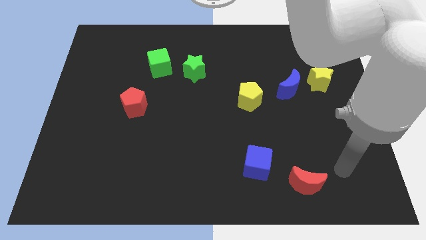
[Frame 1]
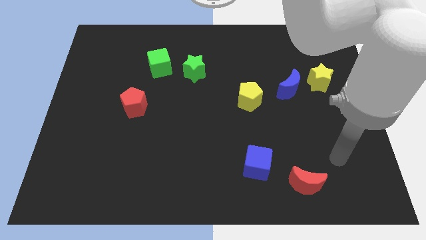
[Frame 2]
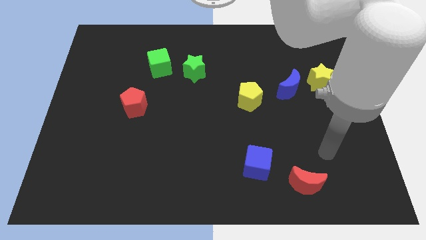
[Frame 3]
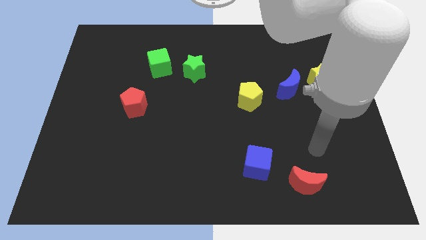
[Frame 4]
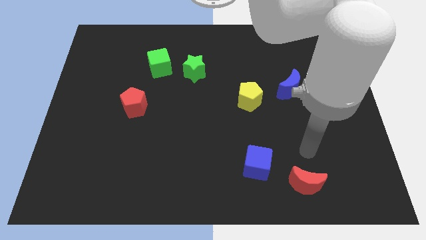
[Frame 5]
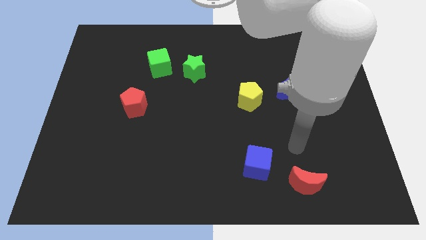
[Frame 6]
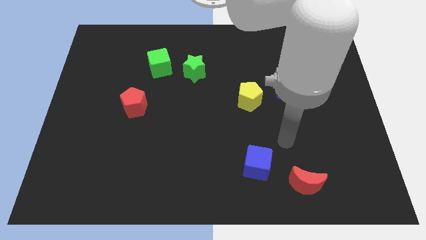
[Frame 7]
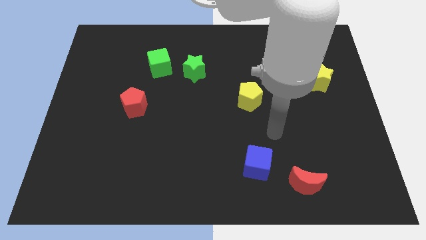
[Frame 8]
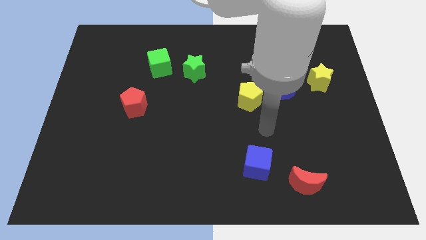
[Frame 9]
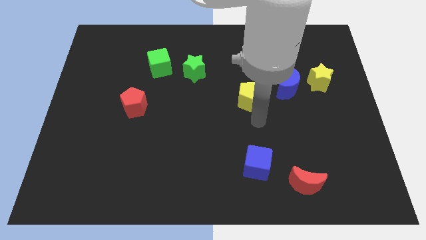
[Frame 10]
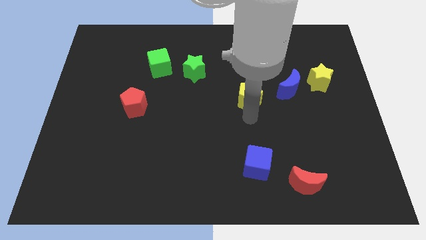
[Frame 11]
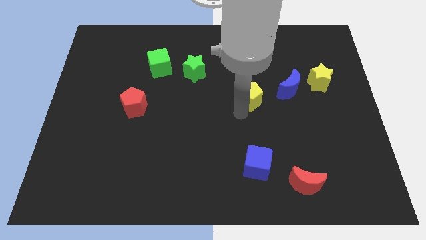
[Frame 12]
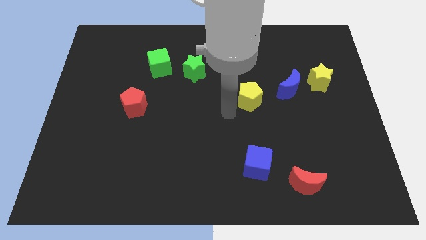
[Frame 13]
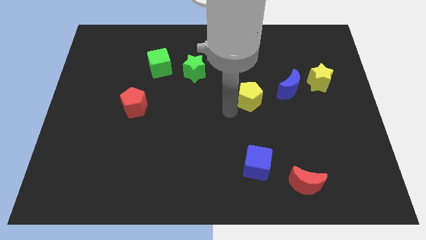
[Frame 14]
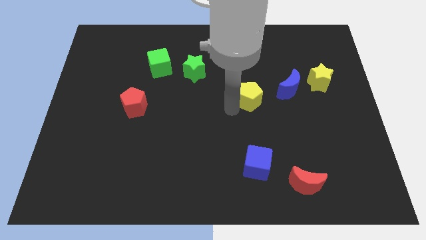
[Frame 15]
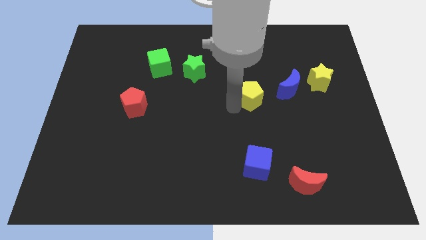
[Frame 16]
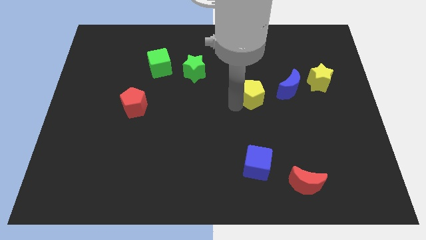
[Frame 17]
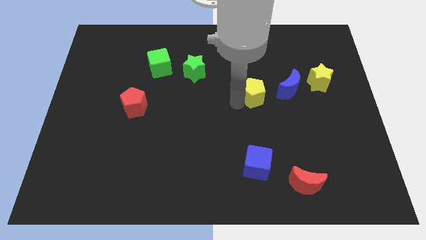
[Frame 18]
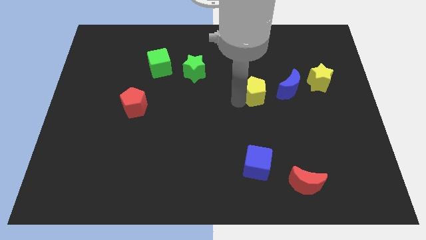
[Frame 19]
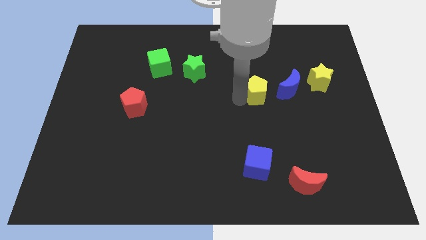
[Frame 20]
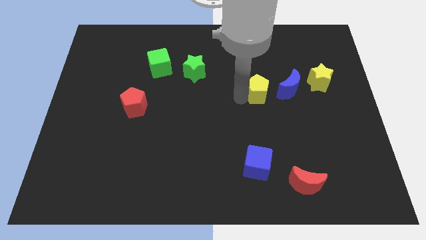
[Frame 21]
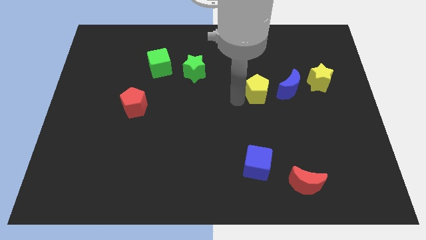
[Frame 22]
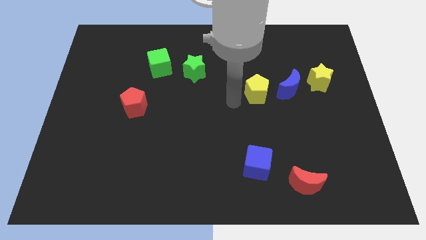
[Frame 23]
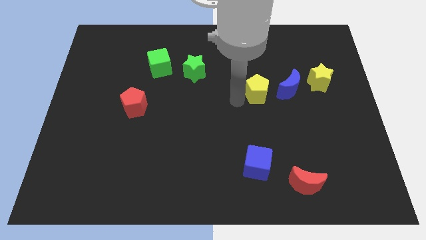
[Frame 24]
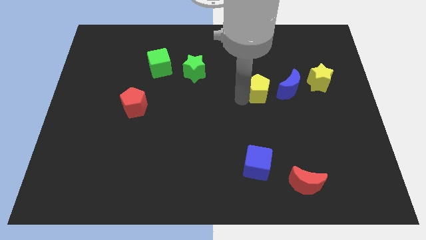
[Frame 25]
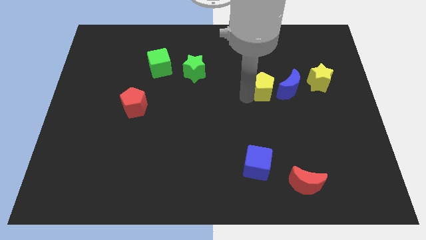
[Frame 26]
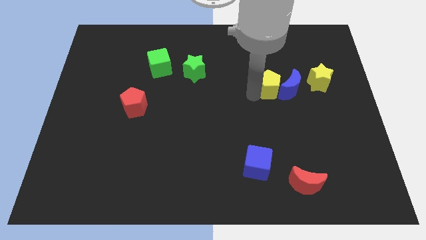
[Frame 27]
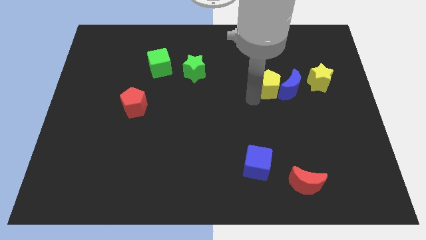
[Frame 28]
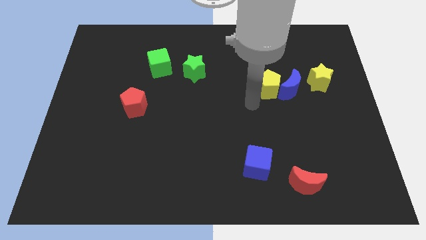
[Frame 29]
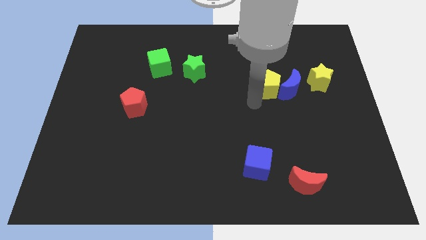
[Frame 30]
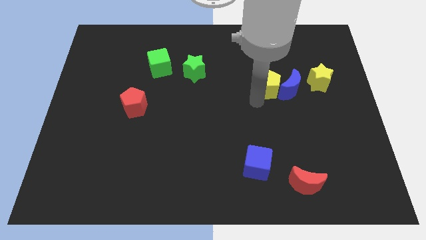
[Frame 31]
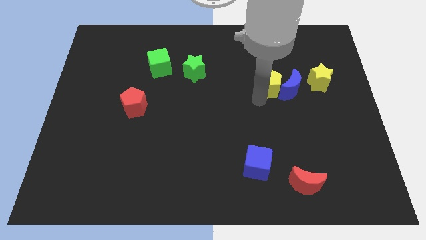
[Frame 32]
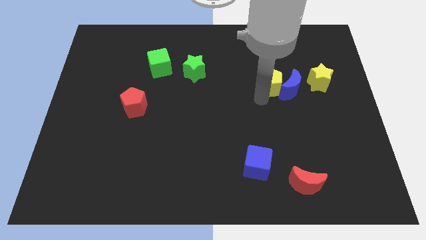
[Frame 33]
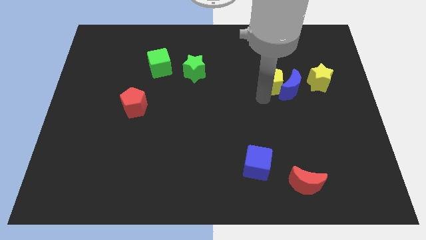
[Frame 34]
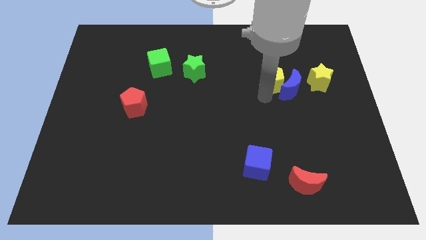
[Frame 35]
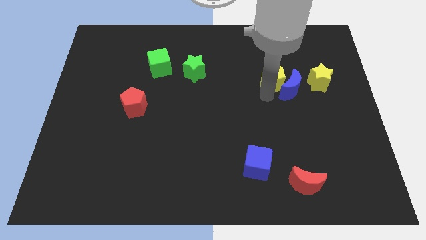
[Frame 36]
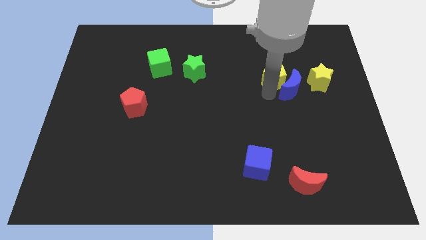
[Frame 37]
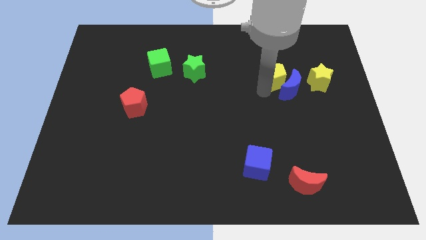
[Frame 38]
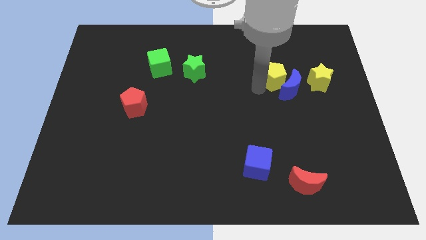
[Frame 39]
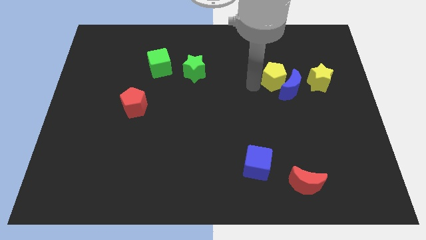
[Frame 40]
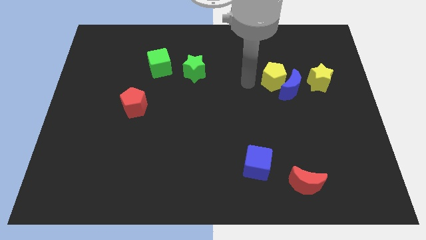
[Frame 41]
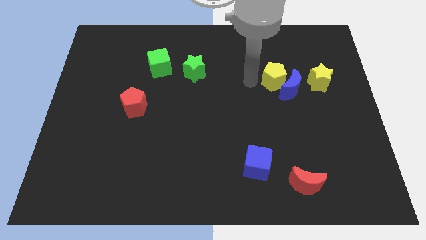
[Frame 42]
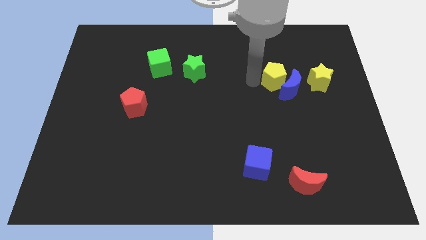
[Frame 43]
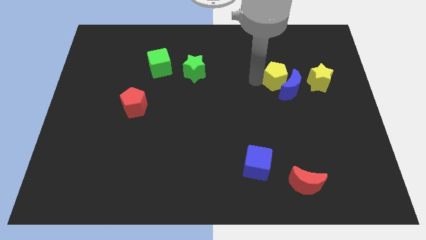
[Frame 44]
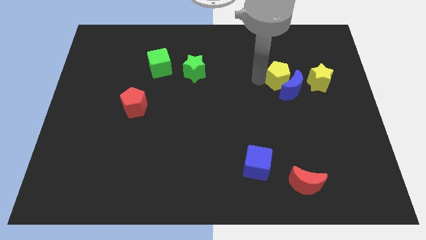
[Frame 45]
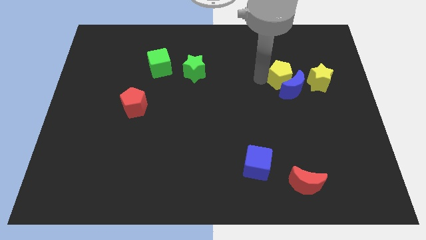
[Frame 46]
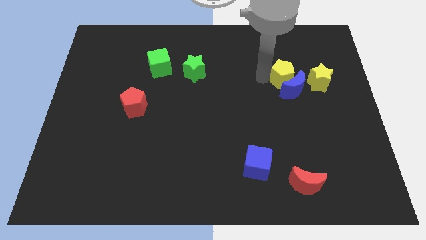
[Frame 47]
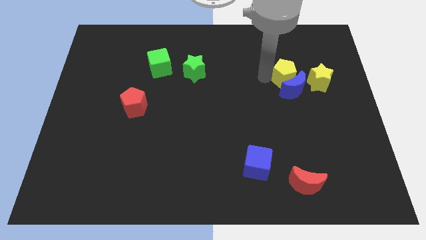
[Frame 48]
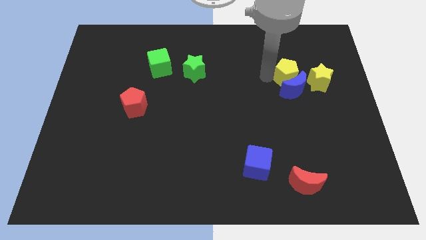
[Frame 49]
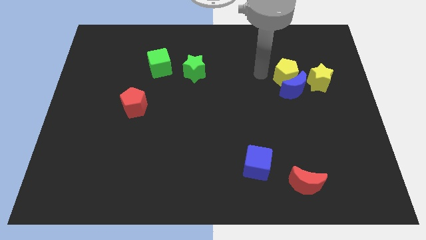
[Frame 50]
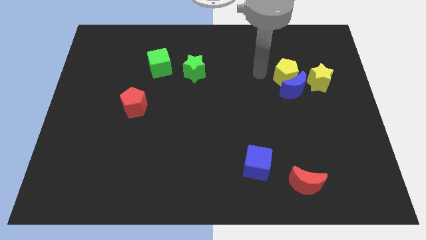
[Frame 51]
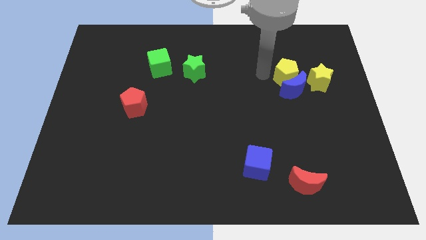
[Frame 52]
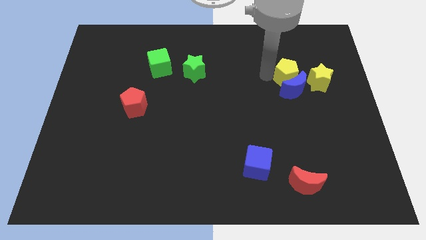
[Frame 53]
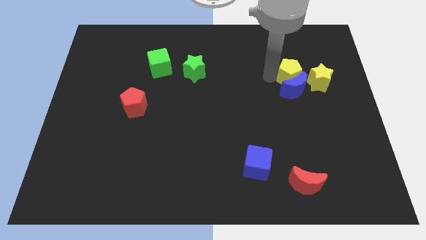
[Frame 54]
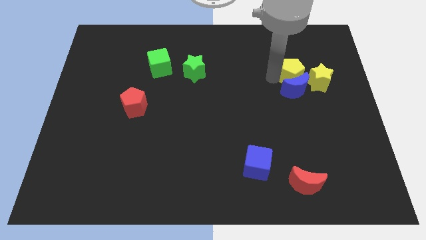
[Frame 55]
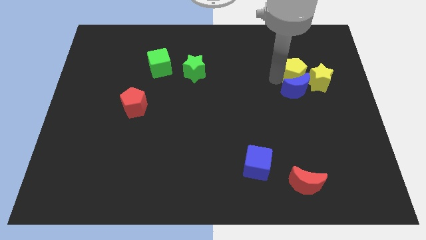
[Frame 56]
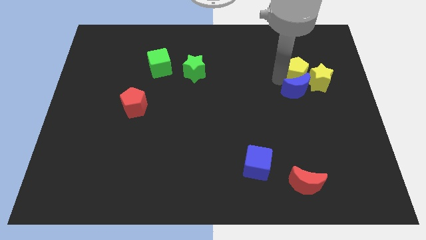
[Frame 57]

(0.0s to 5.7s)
push the yellow pentagon towards the yellow star

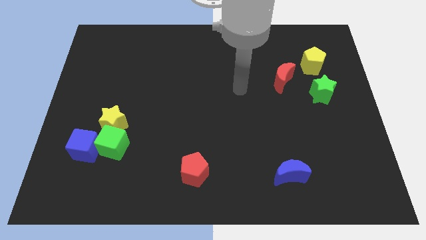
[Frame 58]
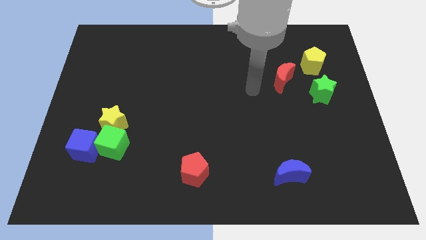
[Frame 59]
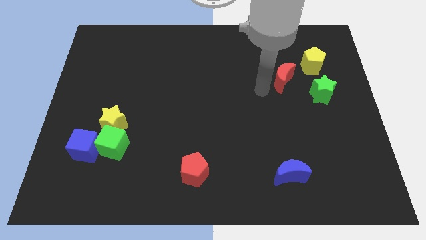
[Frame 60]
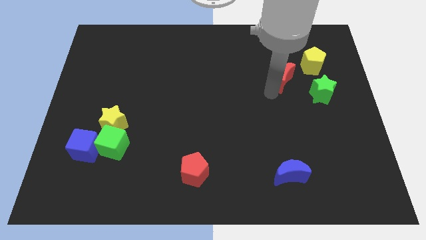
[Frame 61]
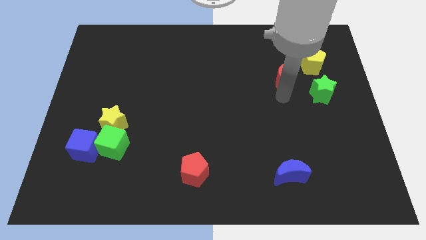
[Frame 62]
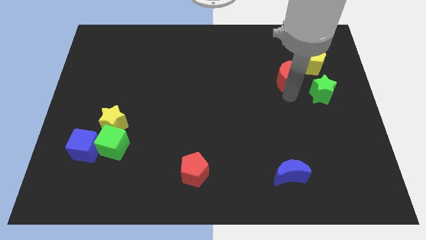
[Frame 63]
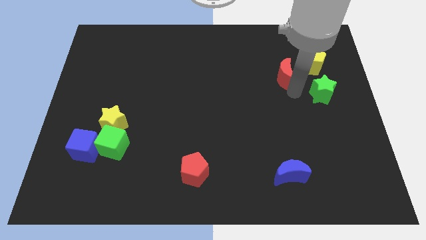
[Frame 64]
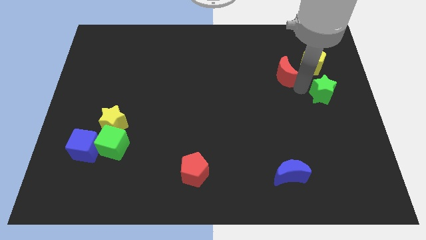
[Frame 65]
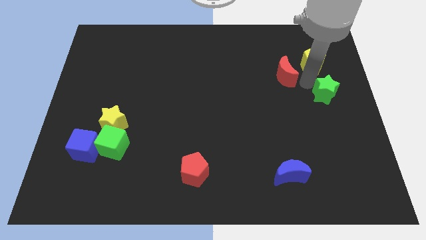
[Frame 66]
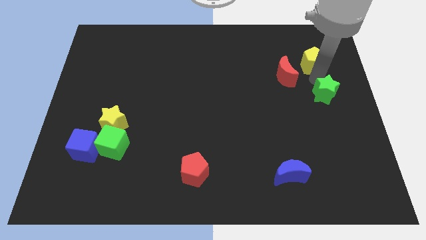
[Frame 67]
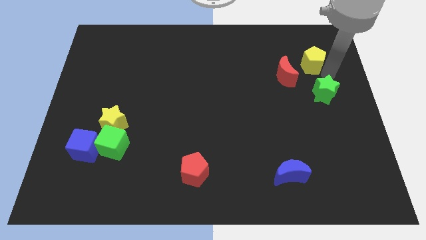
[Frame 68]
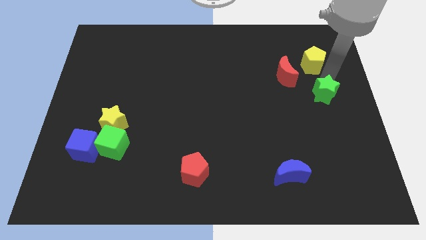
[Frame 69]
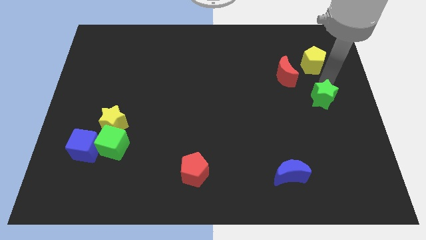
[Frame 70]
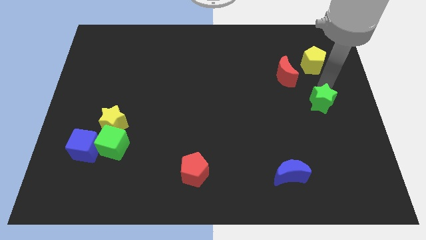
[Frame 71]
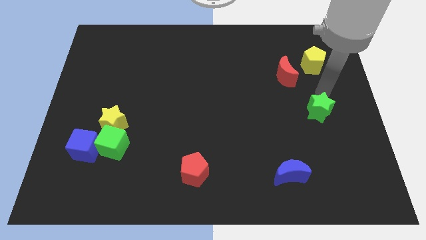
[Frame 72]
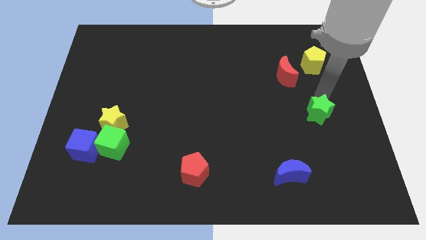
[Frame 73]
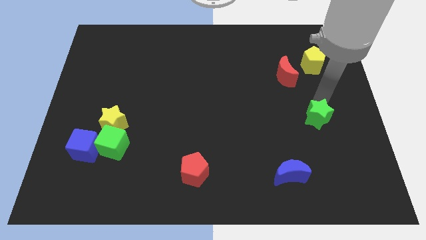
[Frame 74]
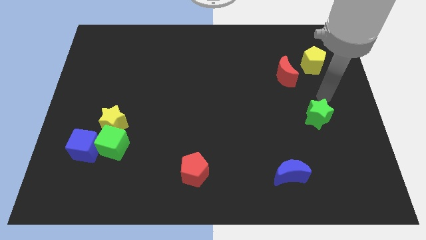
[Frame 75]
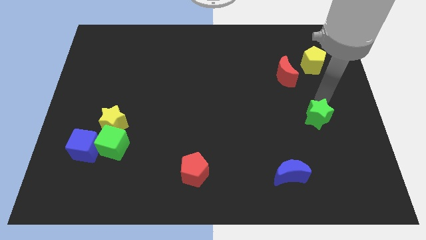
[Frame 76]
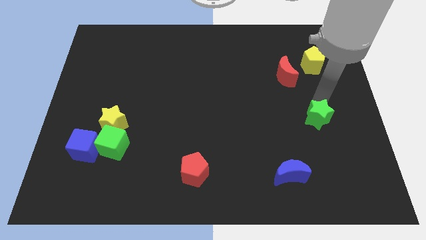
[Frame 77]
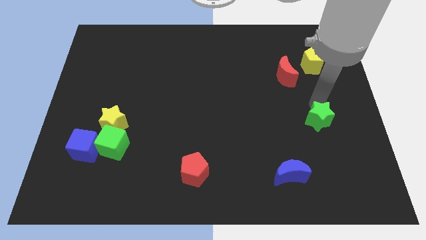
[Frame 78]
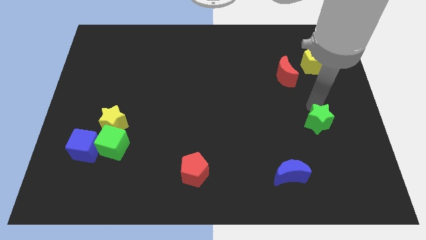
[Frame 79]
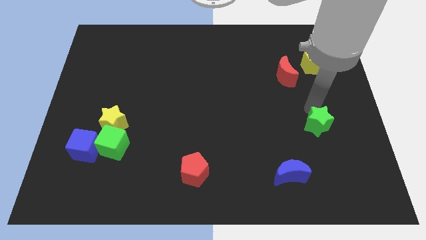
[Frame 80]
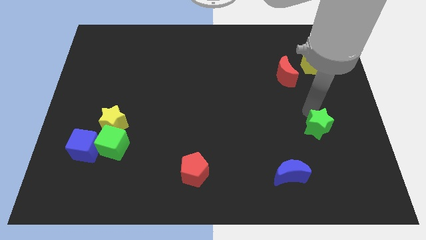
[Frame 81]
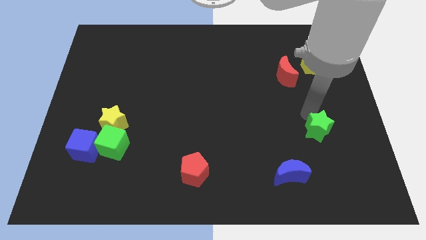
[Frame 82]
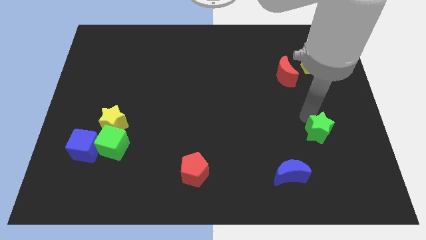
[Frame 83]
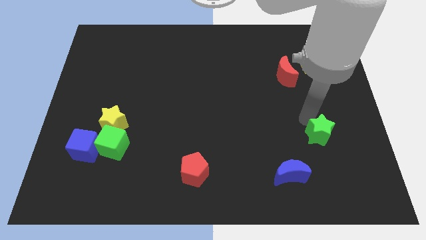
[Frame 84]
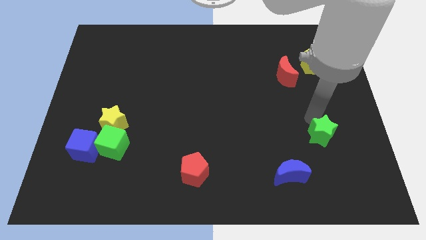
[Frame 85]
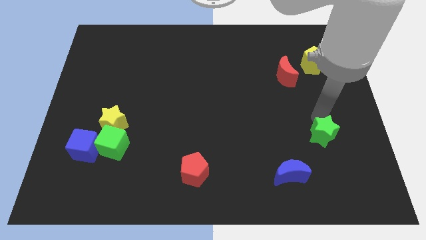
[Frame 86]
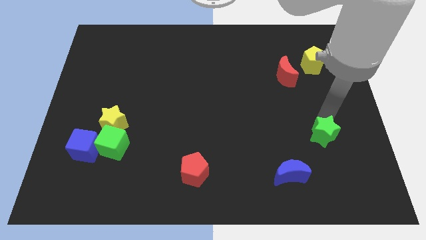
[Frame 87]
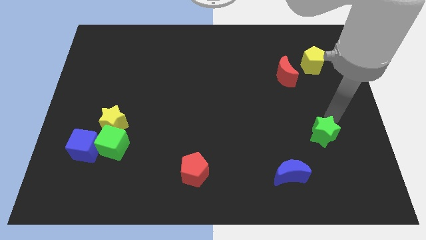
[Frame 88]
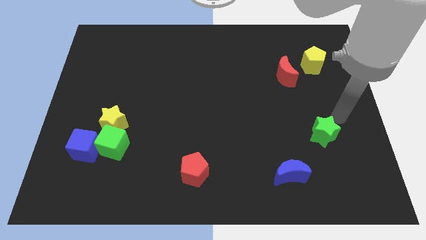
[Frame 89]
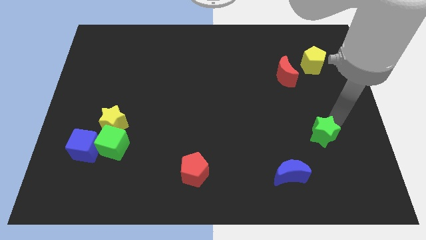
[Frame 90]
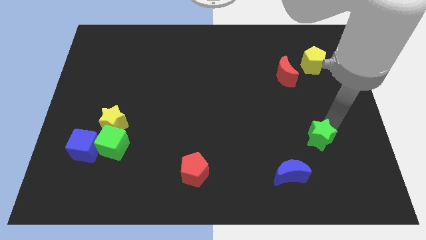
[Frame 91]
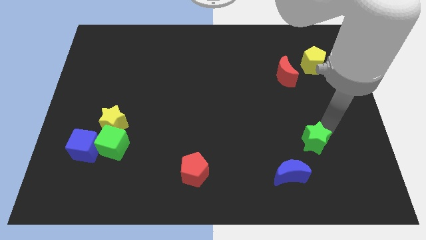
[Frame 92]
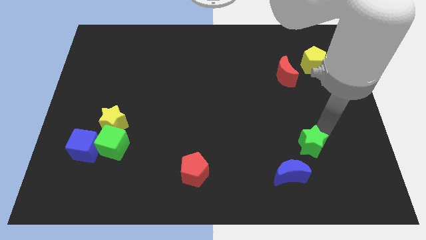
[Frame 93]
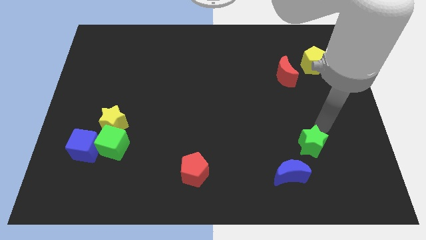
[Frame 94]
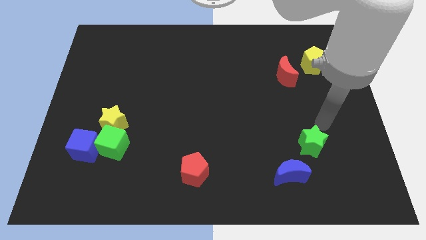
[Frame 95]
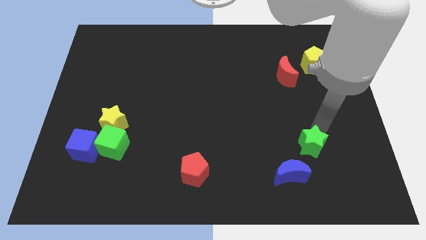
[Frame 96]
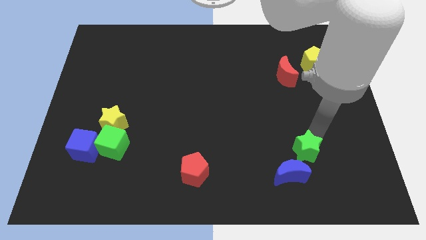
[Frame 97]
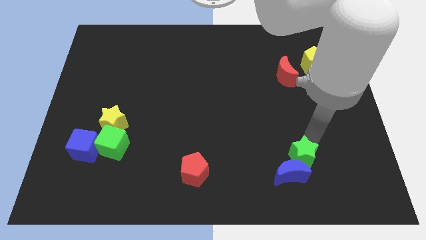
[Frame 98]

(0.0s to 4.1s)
put the green star towards the blue moon
